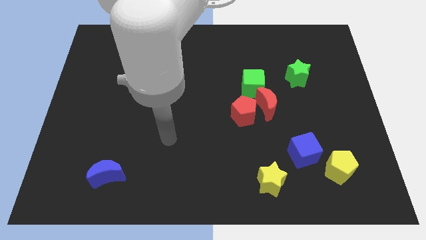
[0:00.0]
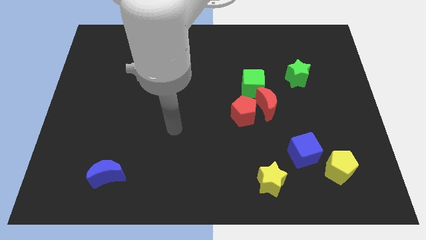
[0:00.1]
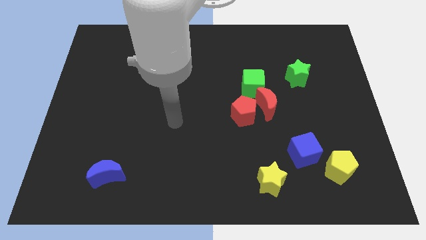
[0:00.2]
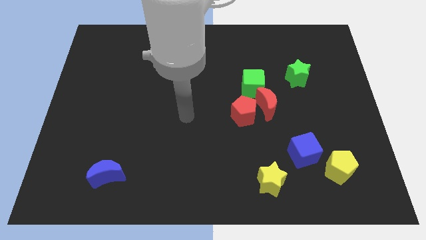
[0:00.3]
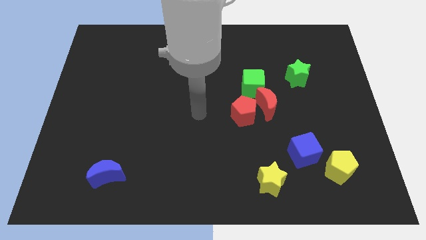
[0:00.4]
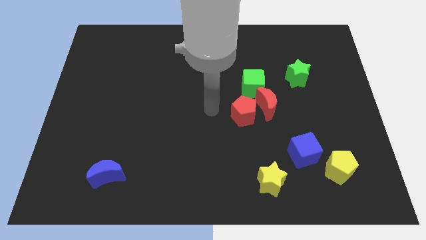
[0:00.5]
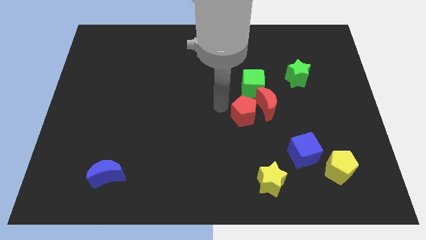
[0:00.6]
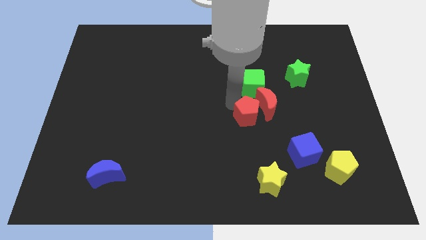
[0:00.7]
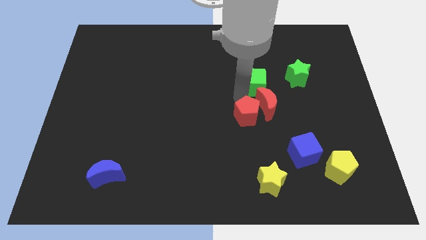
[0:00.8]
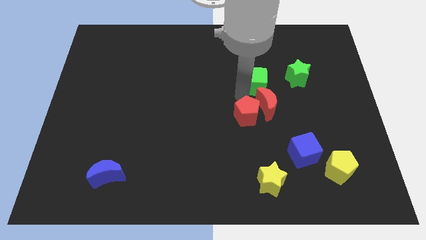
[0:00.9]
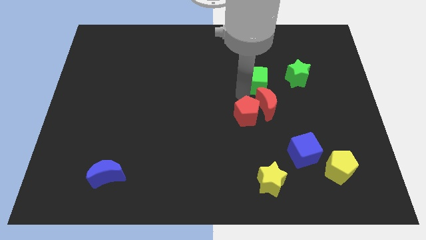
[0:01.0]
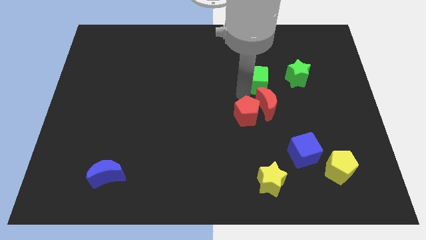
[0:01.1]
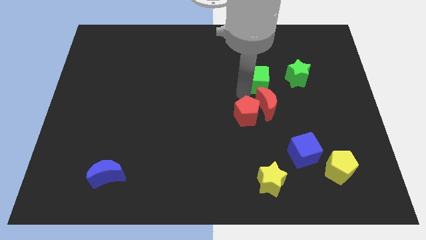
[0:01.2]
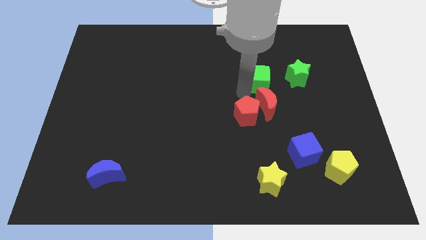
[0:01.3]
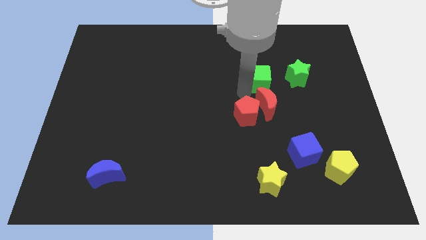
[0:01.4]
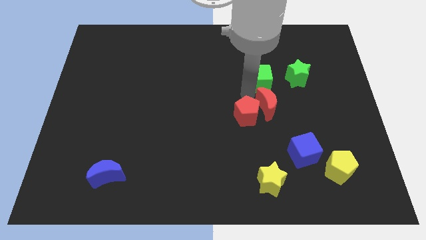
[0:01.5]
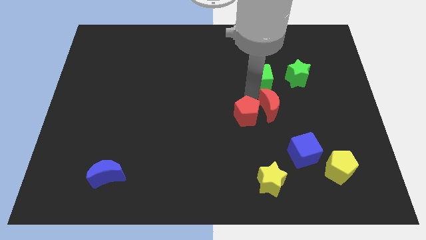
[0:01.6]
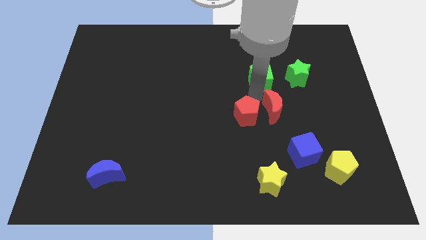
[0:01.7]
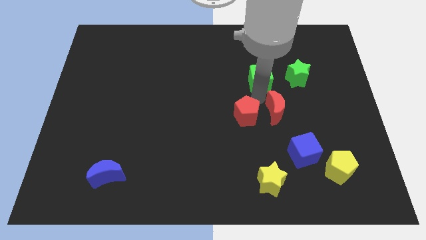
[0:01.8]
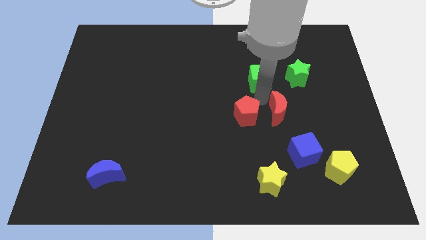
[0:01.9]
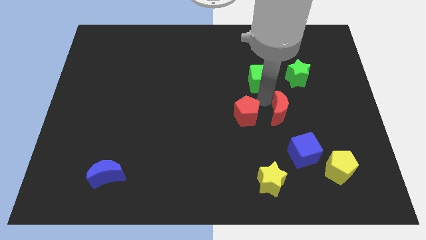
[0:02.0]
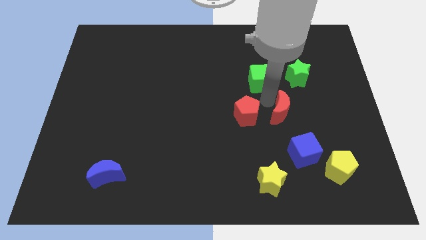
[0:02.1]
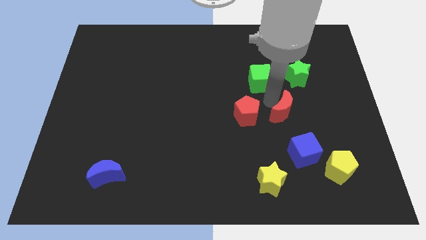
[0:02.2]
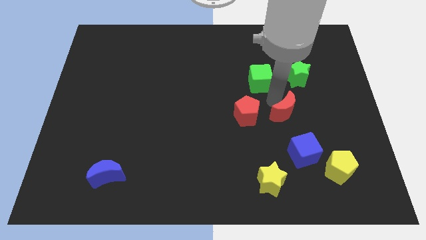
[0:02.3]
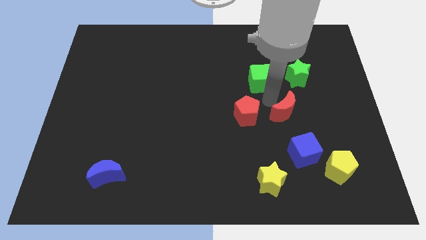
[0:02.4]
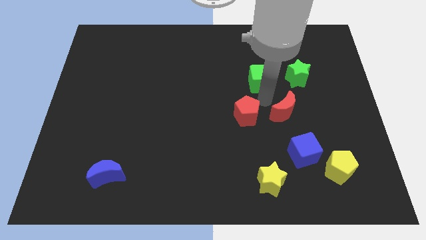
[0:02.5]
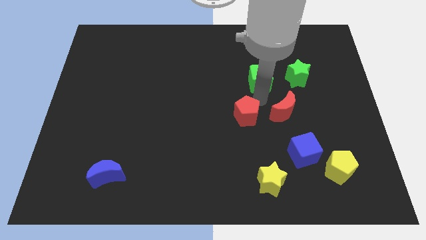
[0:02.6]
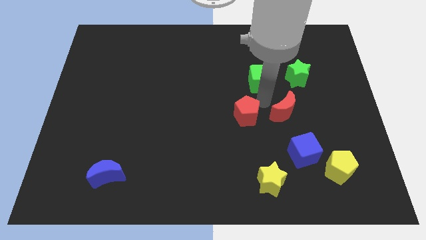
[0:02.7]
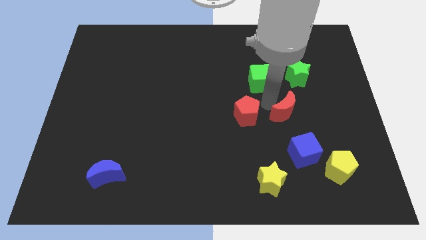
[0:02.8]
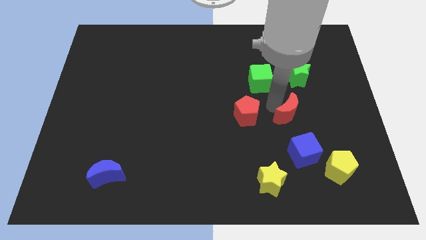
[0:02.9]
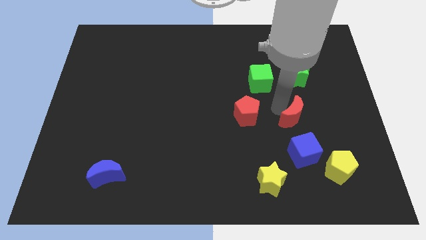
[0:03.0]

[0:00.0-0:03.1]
move the red moon away from the red pentagon and green cube

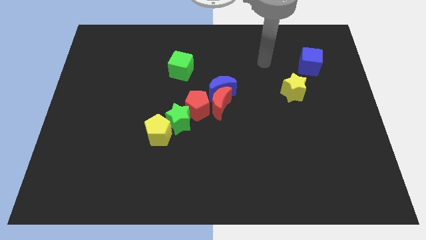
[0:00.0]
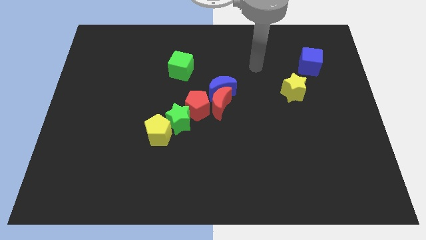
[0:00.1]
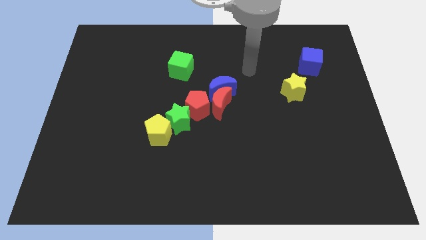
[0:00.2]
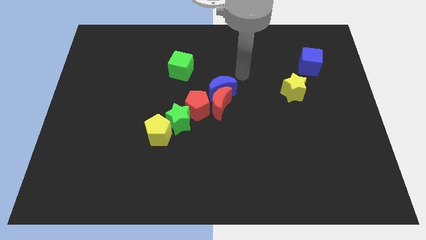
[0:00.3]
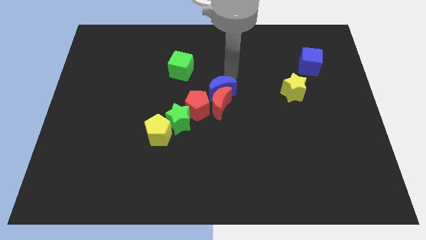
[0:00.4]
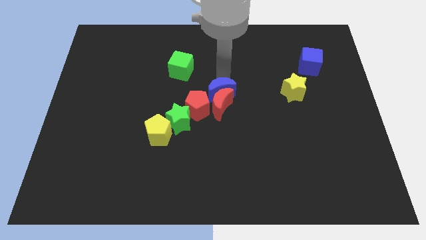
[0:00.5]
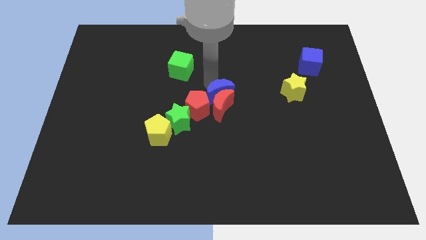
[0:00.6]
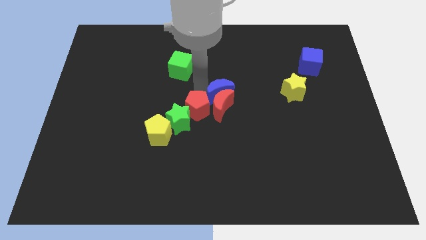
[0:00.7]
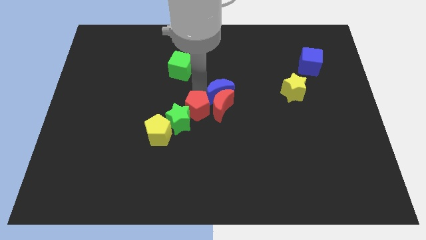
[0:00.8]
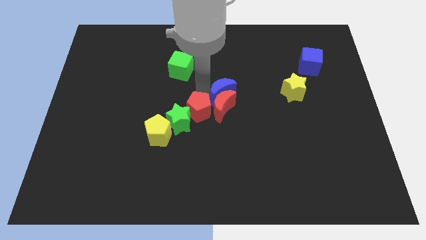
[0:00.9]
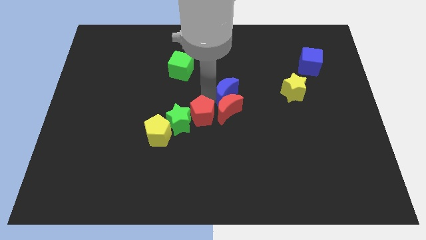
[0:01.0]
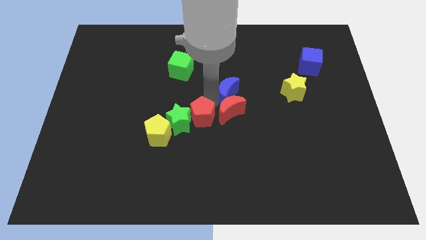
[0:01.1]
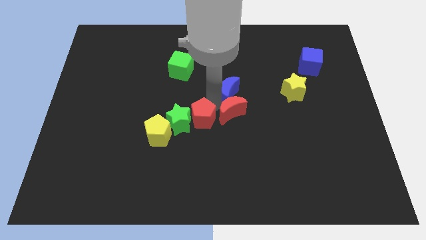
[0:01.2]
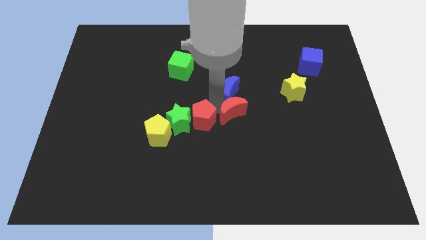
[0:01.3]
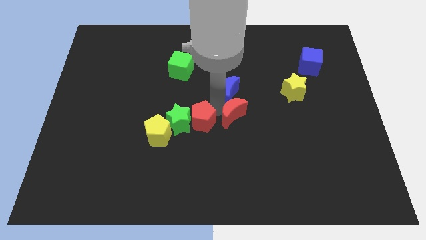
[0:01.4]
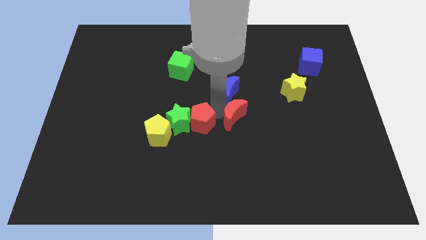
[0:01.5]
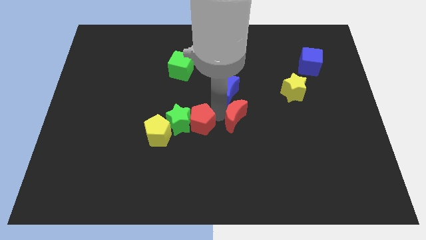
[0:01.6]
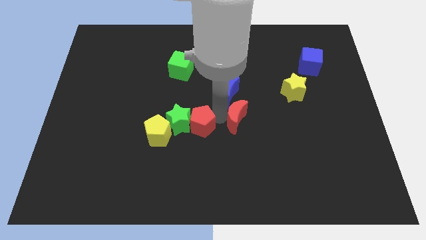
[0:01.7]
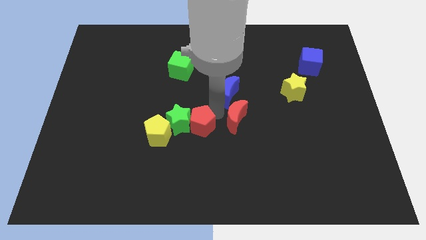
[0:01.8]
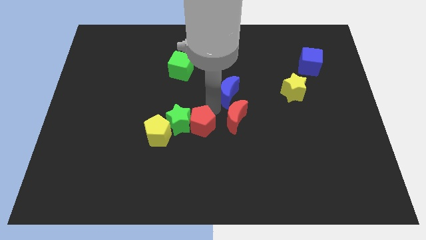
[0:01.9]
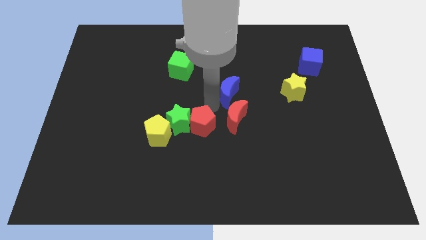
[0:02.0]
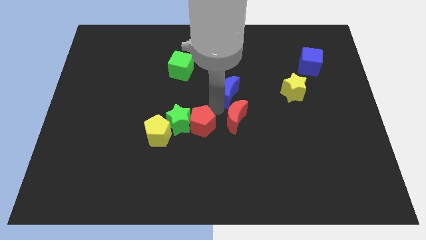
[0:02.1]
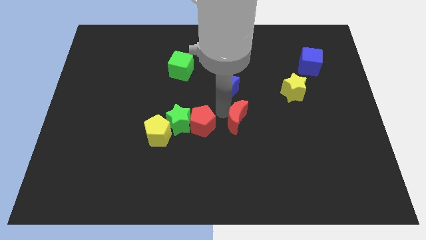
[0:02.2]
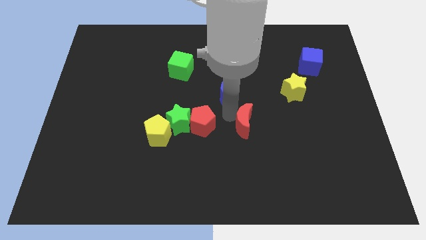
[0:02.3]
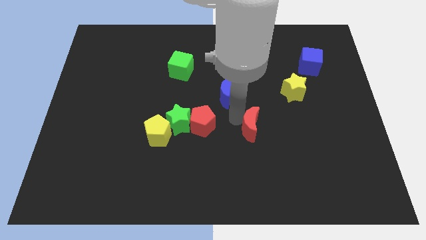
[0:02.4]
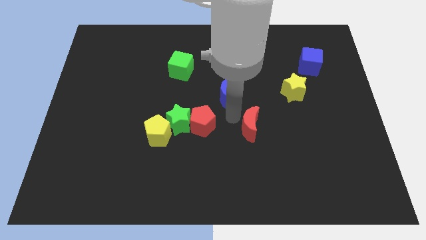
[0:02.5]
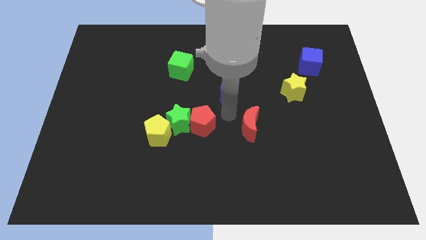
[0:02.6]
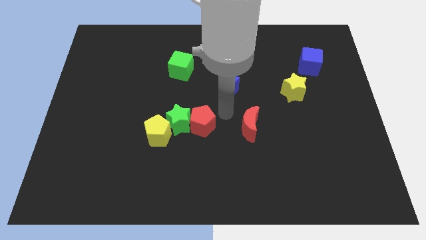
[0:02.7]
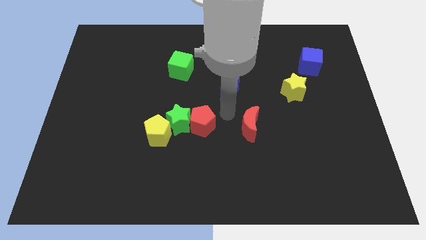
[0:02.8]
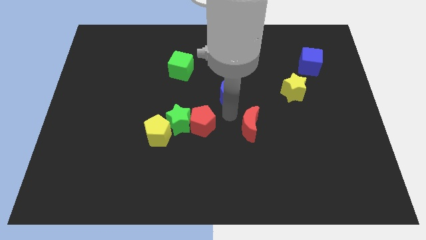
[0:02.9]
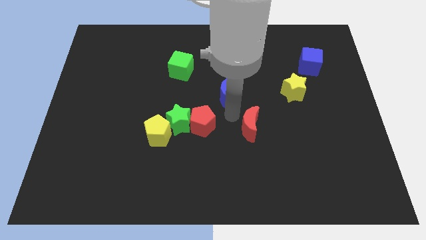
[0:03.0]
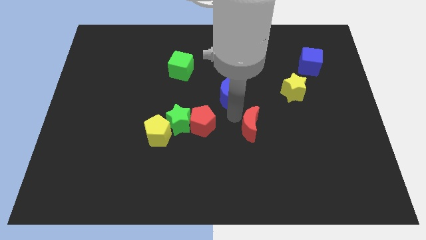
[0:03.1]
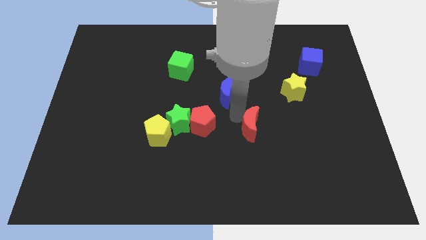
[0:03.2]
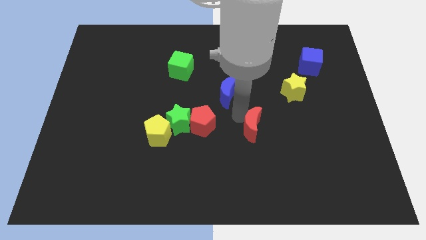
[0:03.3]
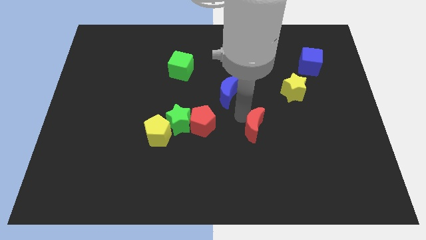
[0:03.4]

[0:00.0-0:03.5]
separate the red moon from the blue moon and red pentagon

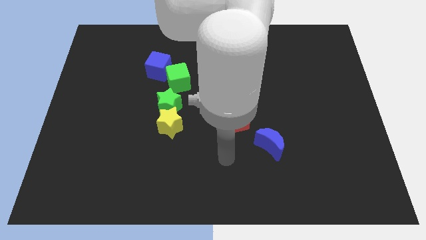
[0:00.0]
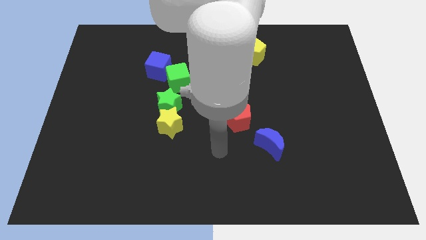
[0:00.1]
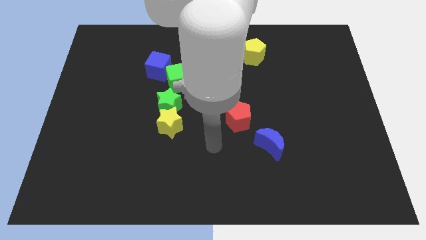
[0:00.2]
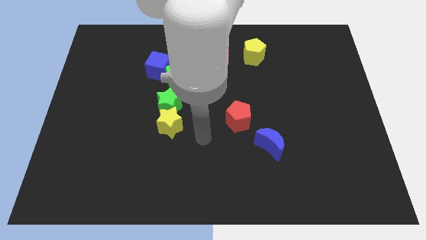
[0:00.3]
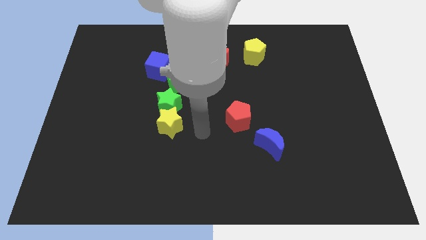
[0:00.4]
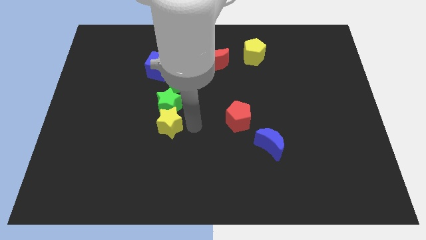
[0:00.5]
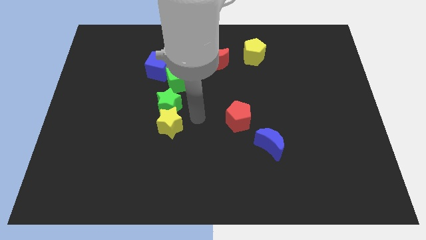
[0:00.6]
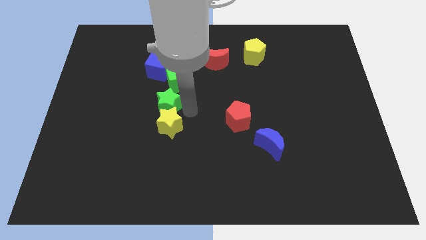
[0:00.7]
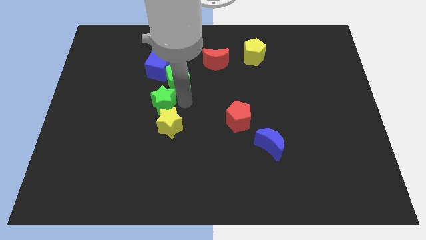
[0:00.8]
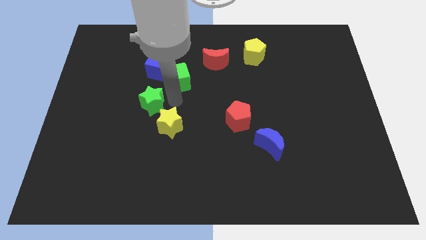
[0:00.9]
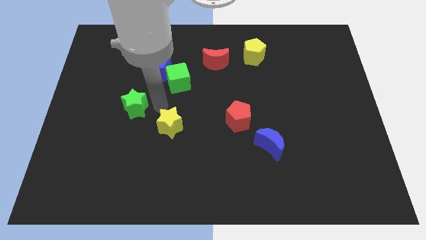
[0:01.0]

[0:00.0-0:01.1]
separate the yellow star from the green star

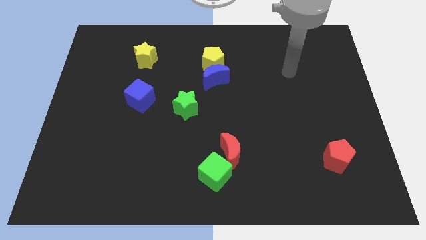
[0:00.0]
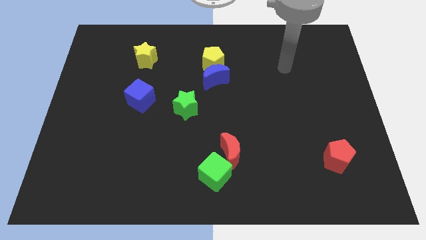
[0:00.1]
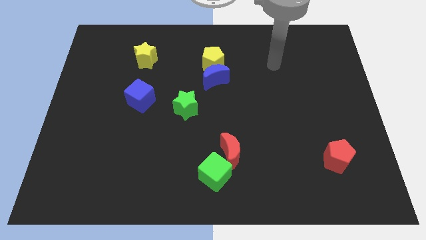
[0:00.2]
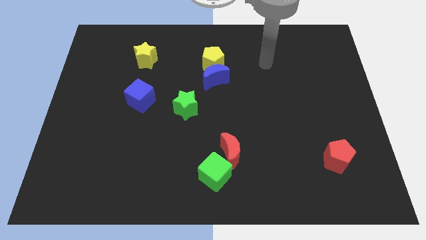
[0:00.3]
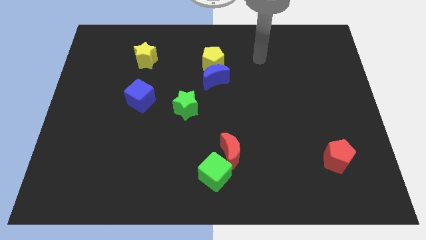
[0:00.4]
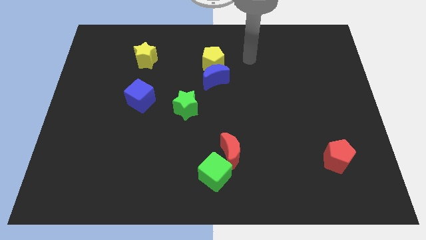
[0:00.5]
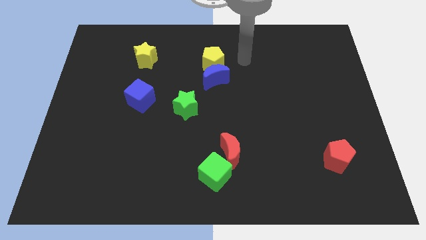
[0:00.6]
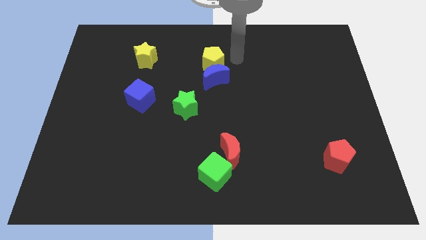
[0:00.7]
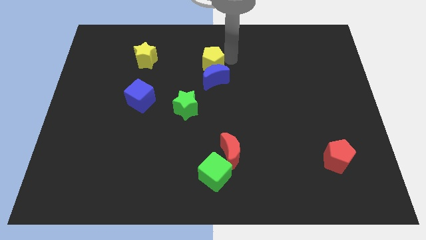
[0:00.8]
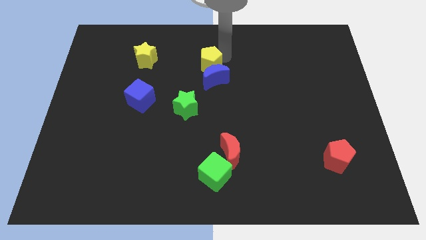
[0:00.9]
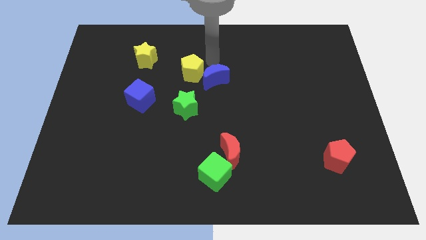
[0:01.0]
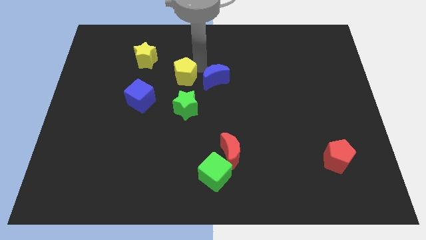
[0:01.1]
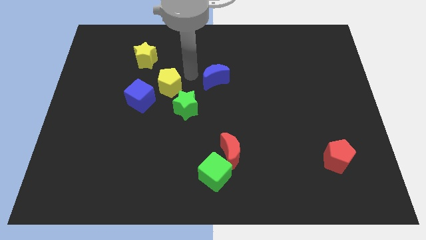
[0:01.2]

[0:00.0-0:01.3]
move the blue moon away from the yellow pentagon

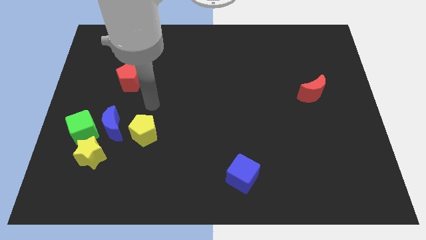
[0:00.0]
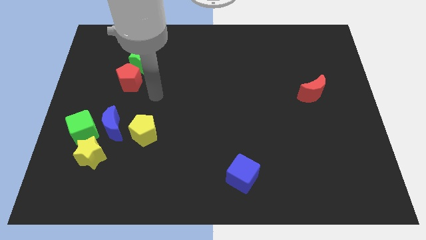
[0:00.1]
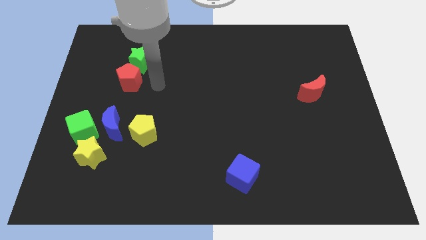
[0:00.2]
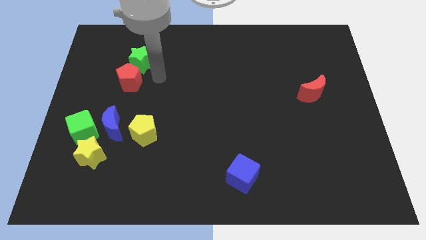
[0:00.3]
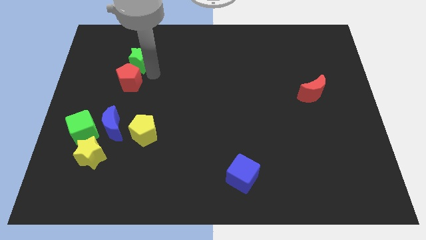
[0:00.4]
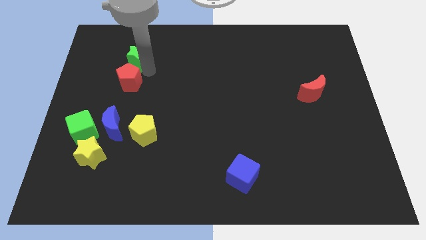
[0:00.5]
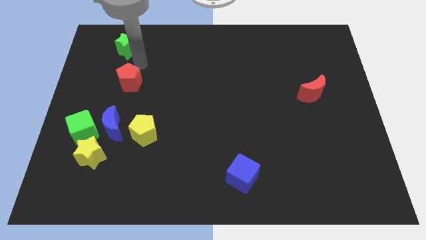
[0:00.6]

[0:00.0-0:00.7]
separate the red pentagon from the green star
